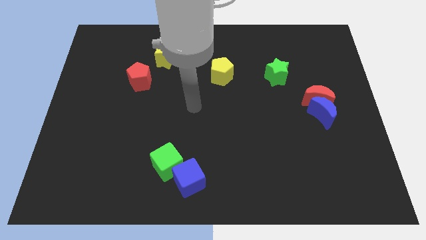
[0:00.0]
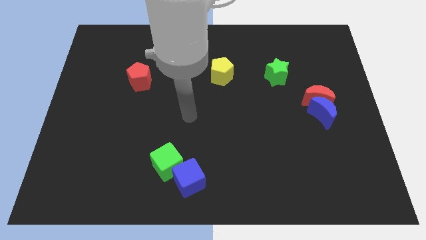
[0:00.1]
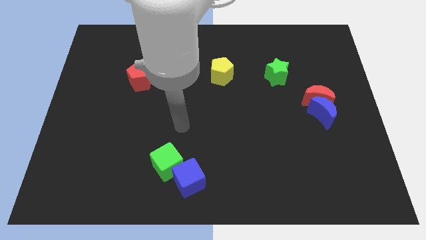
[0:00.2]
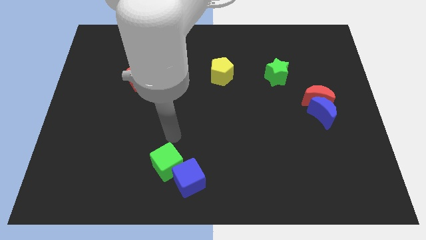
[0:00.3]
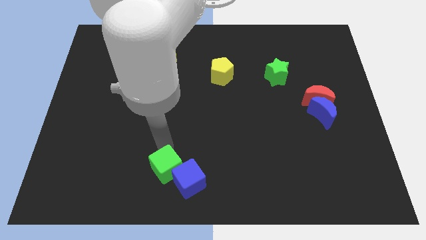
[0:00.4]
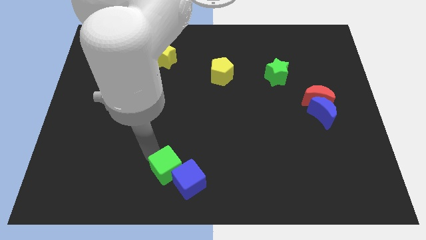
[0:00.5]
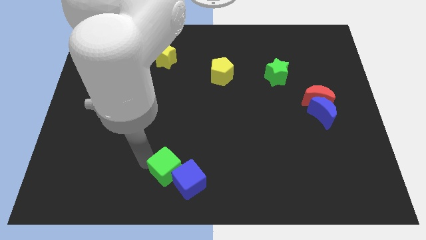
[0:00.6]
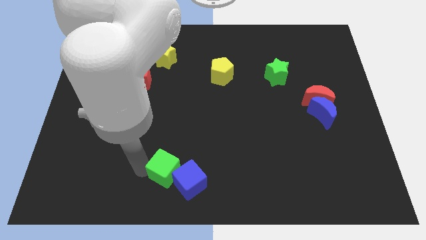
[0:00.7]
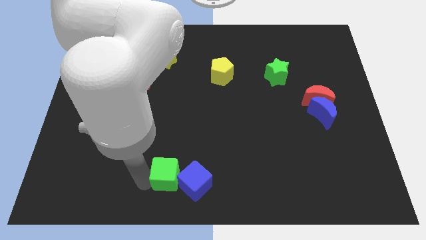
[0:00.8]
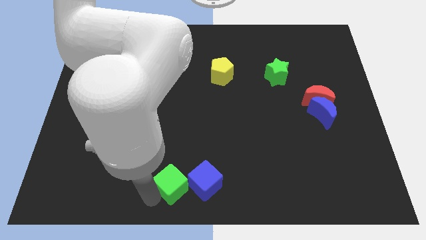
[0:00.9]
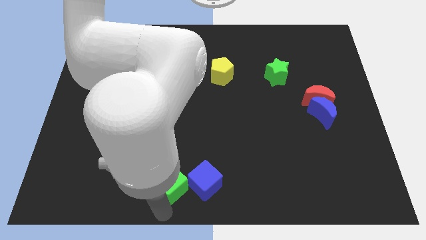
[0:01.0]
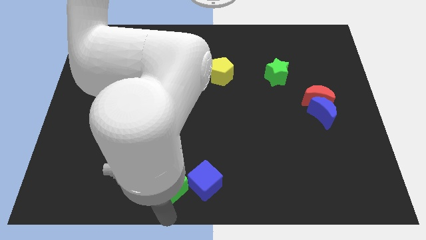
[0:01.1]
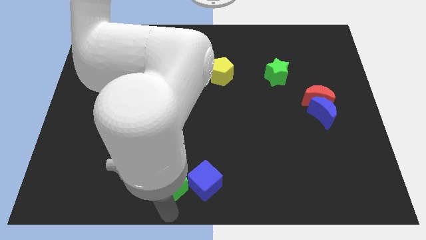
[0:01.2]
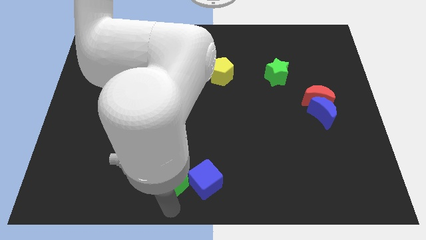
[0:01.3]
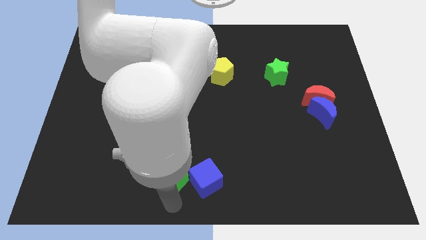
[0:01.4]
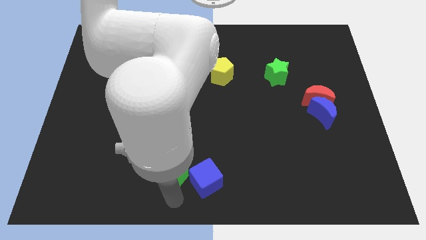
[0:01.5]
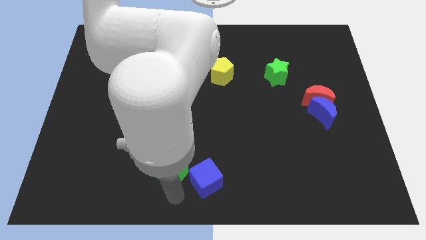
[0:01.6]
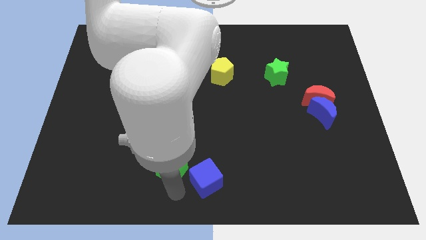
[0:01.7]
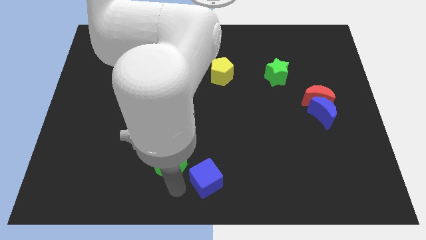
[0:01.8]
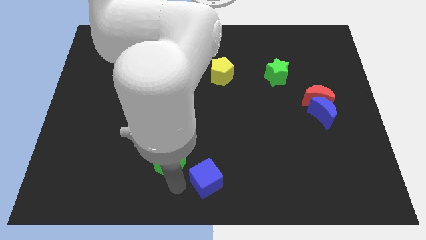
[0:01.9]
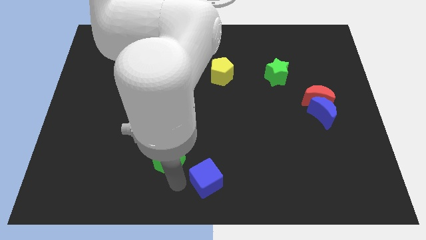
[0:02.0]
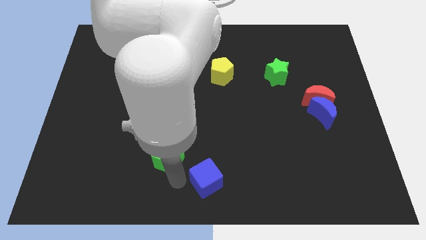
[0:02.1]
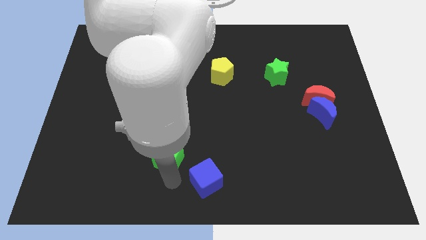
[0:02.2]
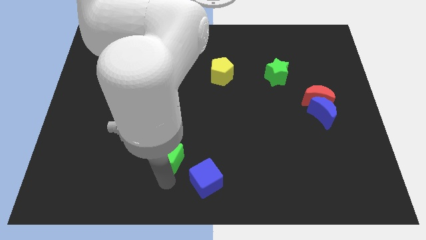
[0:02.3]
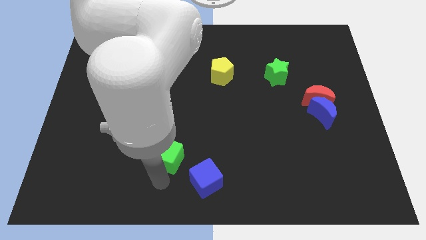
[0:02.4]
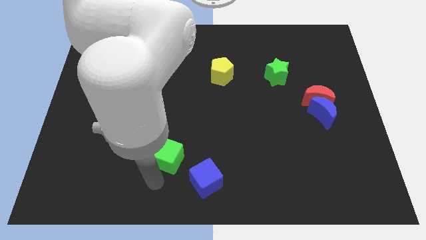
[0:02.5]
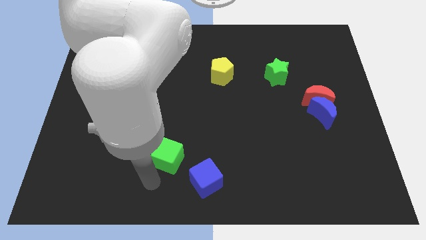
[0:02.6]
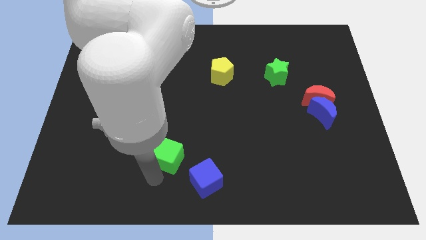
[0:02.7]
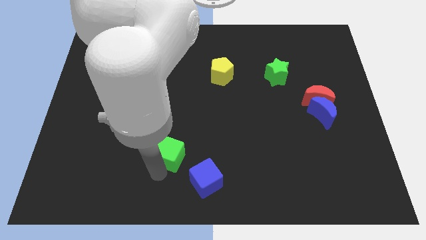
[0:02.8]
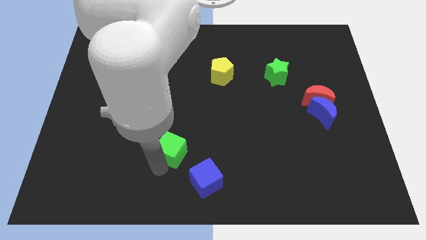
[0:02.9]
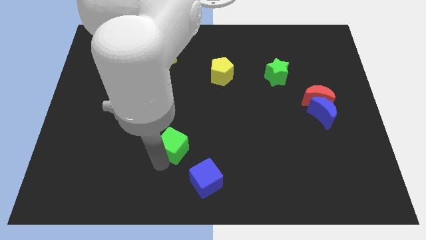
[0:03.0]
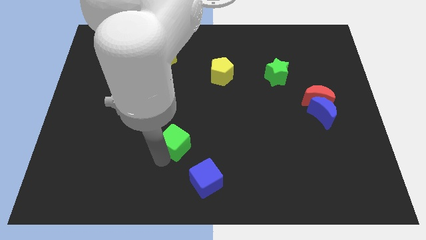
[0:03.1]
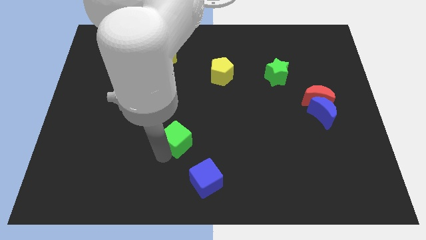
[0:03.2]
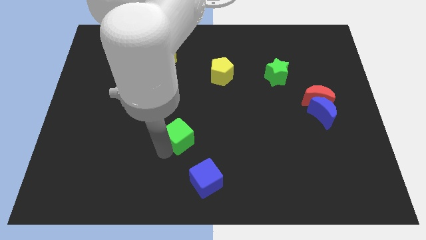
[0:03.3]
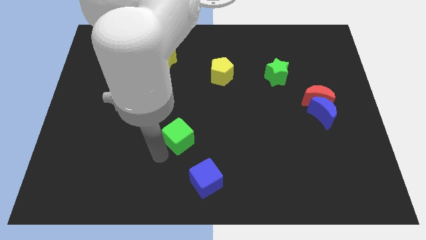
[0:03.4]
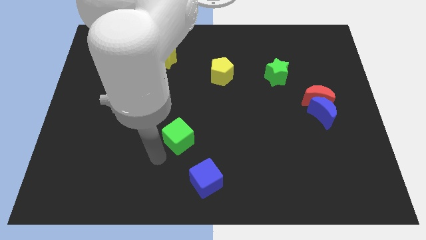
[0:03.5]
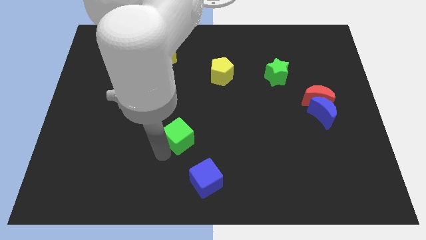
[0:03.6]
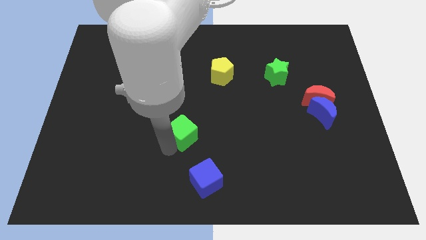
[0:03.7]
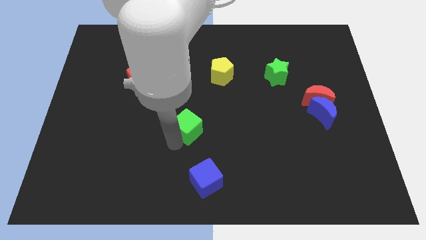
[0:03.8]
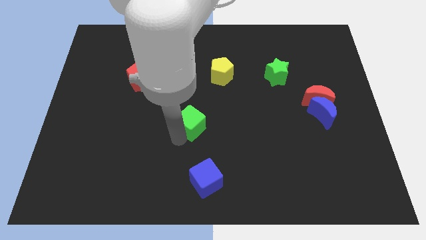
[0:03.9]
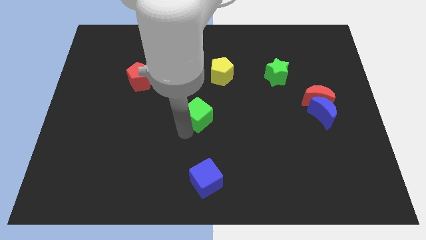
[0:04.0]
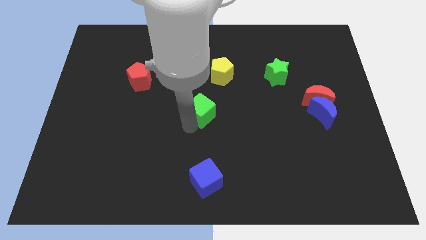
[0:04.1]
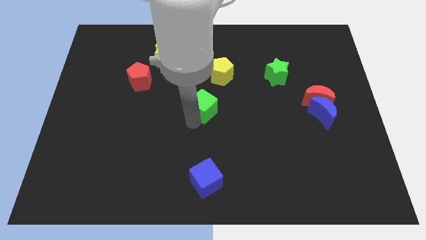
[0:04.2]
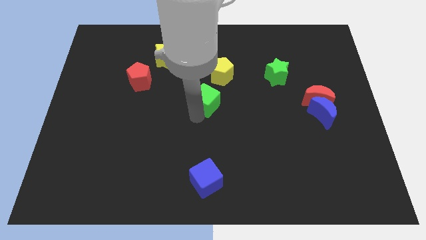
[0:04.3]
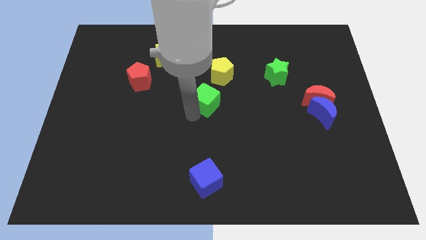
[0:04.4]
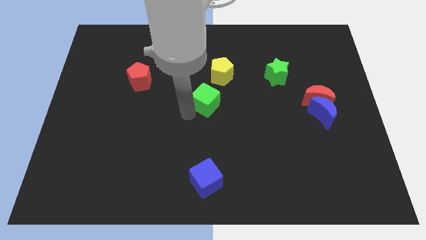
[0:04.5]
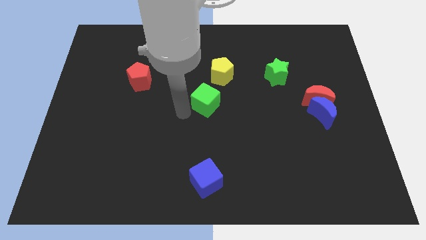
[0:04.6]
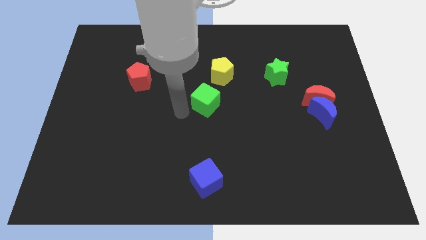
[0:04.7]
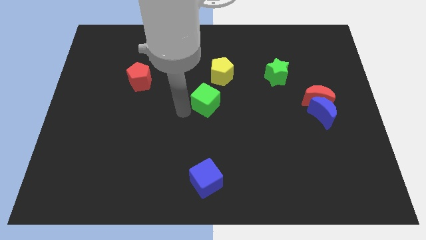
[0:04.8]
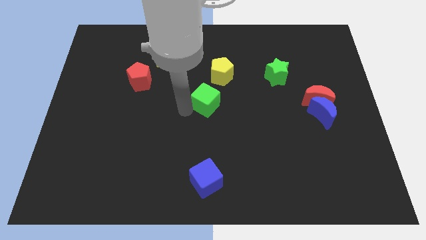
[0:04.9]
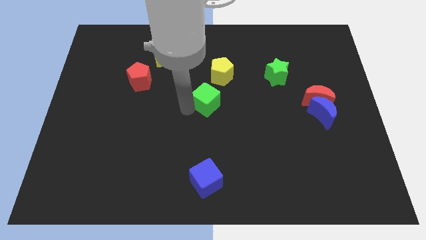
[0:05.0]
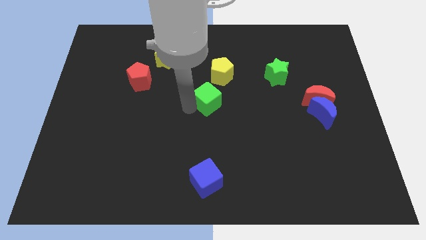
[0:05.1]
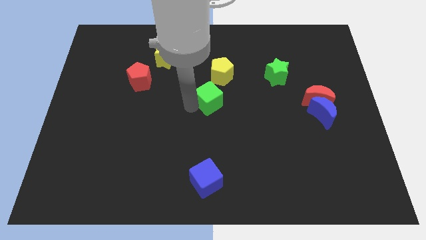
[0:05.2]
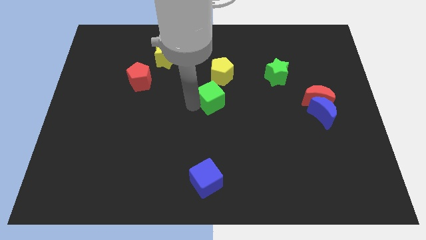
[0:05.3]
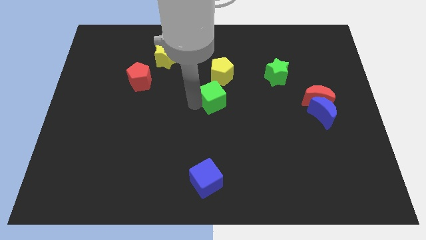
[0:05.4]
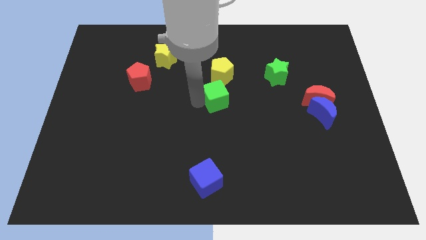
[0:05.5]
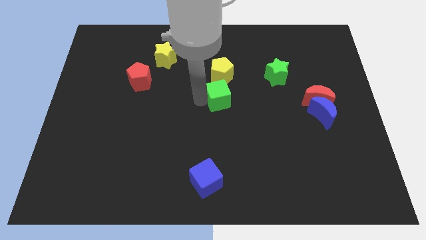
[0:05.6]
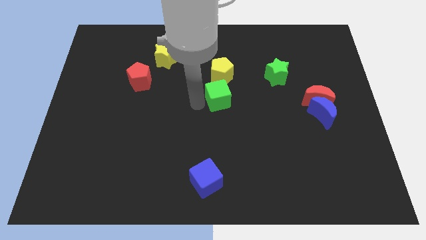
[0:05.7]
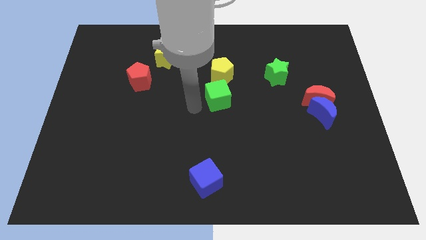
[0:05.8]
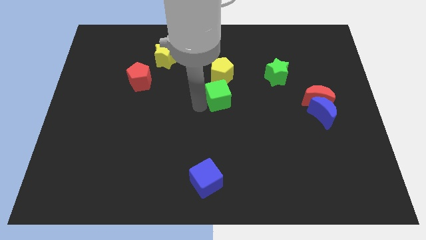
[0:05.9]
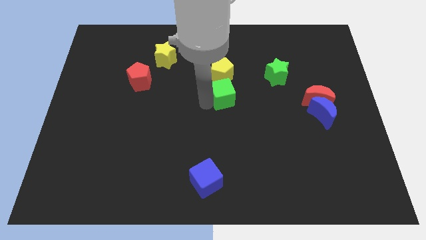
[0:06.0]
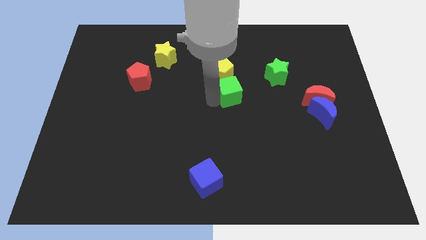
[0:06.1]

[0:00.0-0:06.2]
push the green cube to the bottom right side of the yellow pentagon
